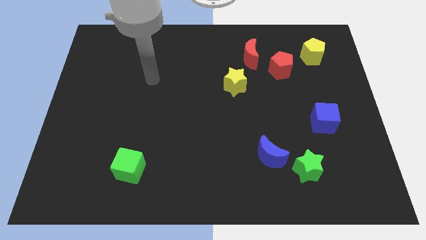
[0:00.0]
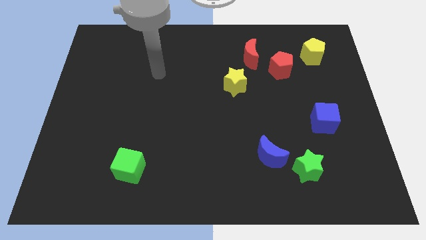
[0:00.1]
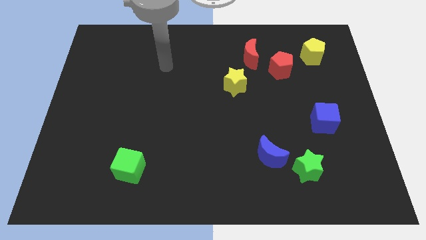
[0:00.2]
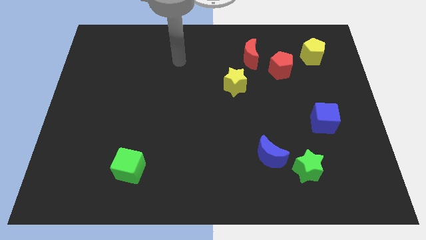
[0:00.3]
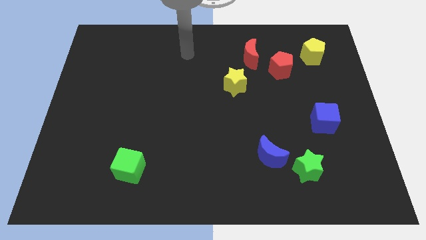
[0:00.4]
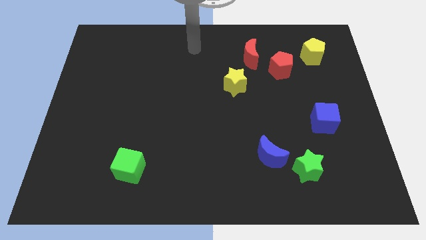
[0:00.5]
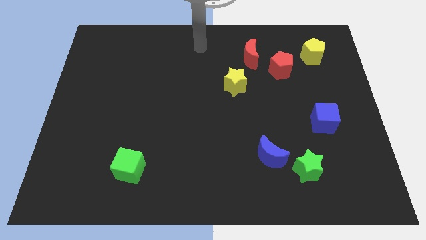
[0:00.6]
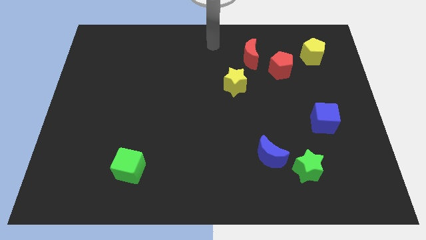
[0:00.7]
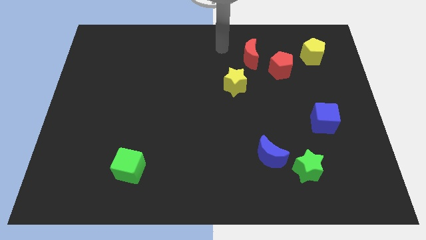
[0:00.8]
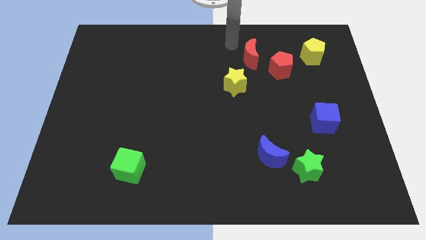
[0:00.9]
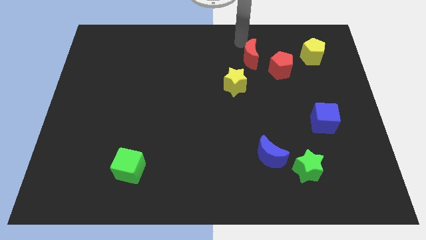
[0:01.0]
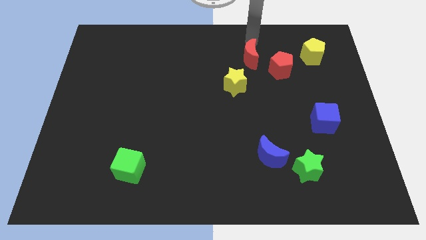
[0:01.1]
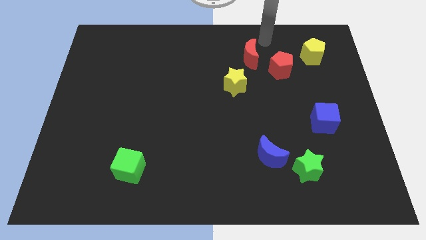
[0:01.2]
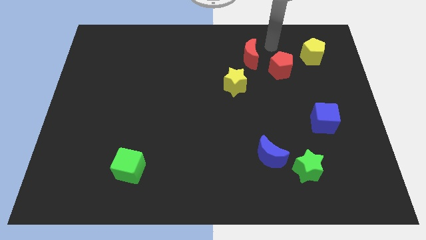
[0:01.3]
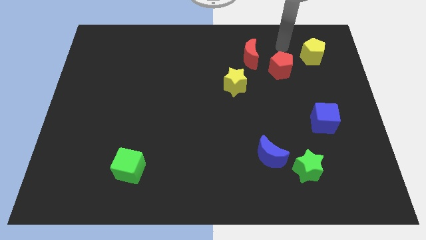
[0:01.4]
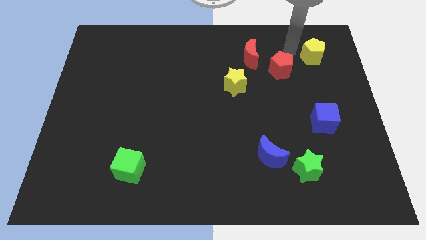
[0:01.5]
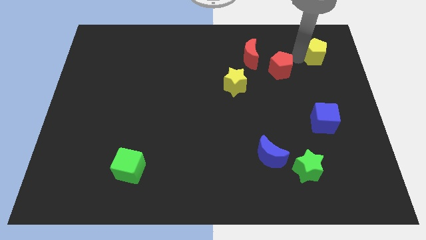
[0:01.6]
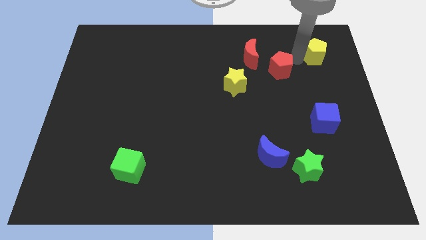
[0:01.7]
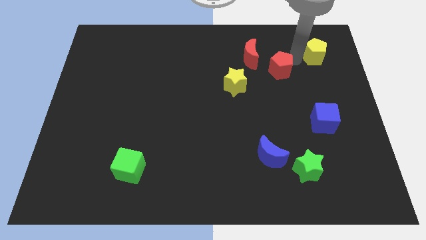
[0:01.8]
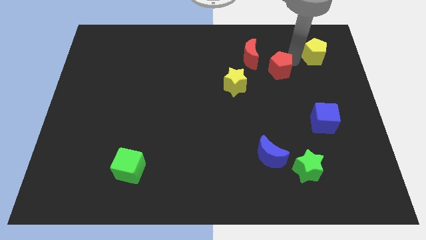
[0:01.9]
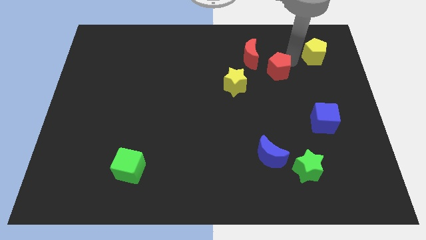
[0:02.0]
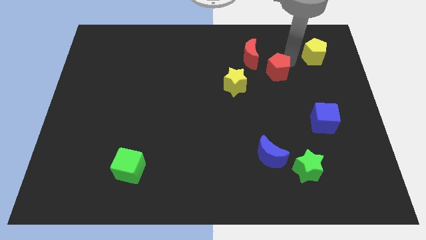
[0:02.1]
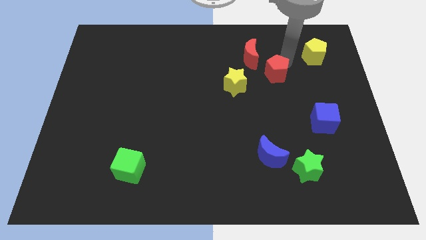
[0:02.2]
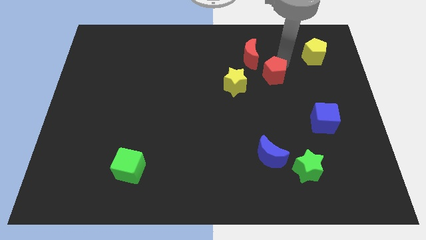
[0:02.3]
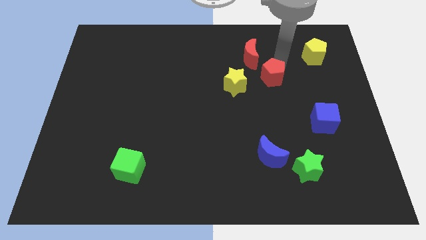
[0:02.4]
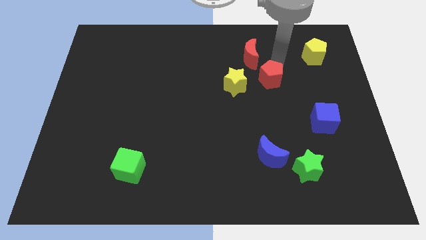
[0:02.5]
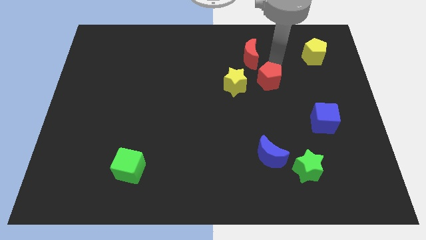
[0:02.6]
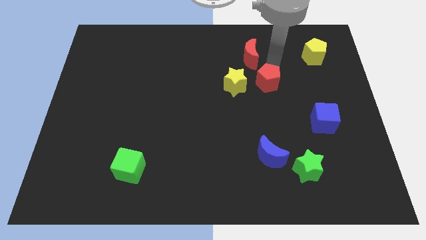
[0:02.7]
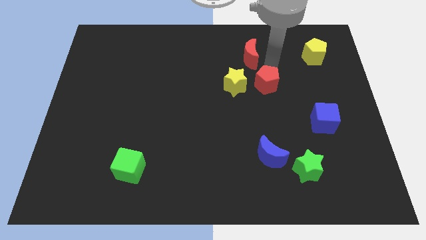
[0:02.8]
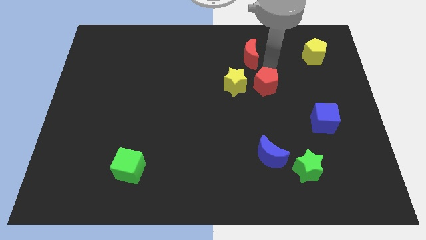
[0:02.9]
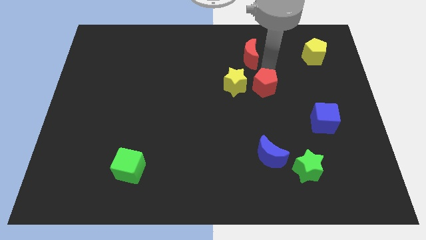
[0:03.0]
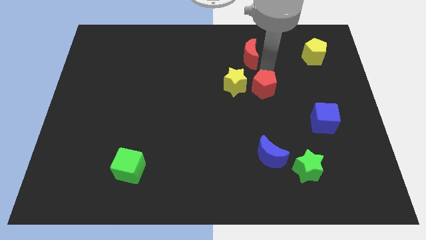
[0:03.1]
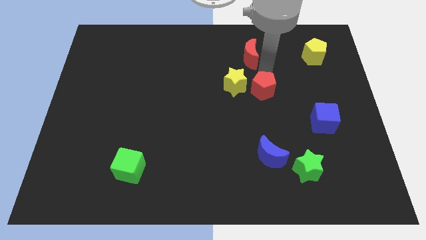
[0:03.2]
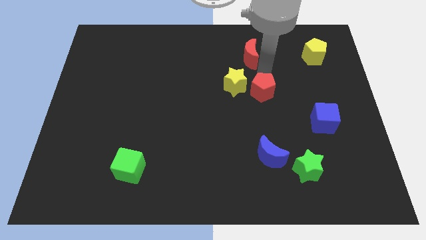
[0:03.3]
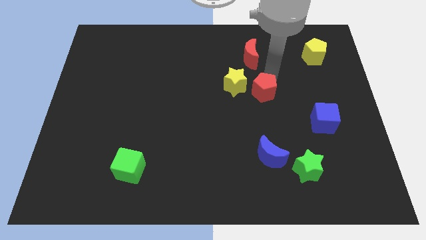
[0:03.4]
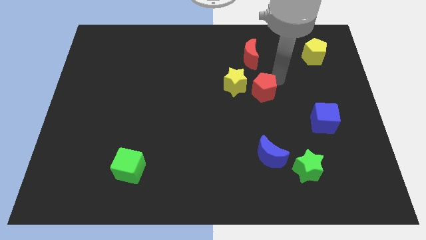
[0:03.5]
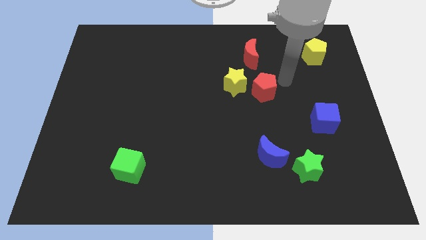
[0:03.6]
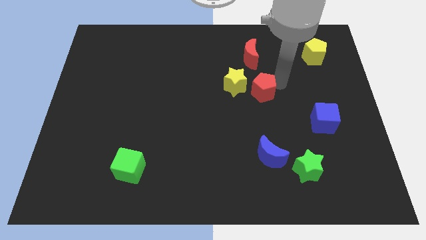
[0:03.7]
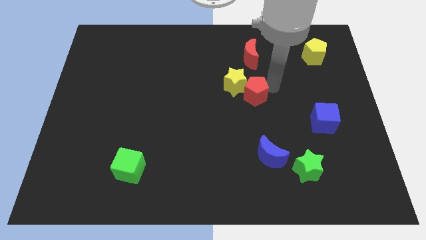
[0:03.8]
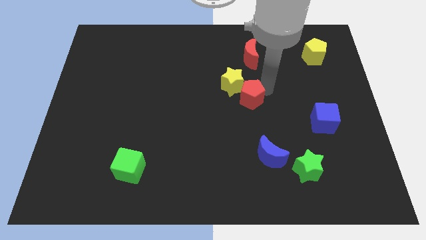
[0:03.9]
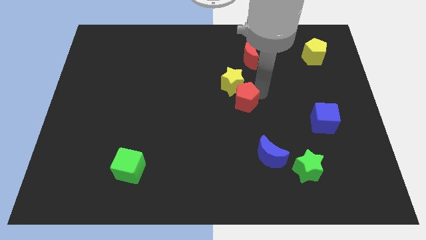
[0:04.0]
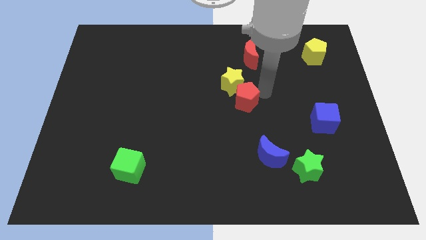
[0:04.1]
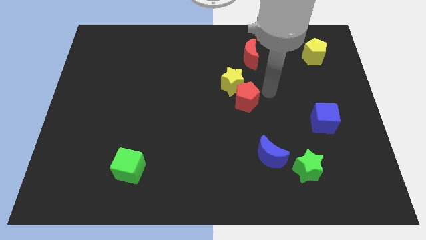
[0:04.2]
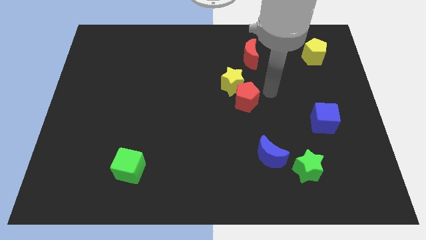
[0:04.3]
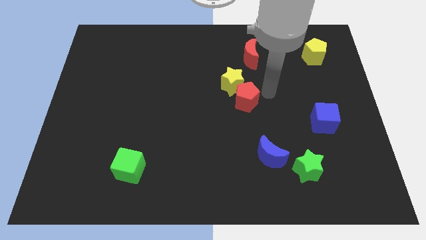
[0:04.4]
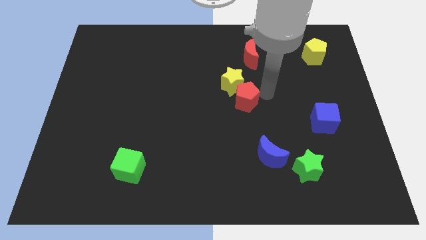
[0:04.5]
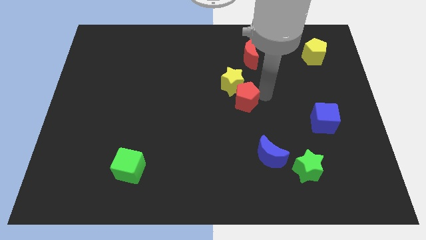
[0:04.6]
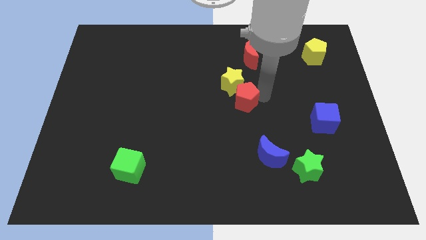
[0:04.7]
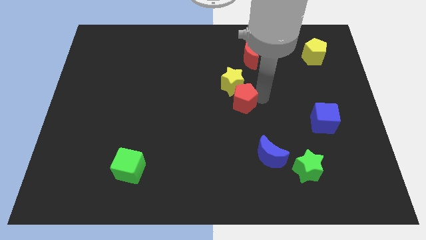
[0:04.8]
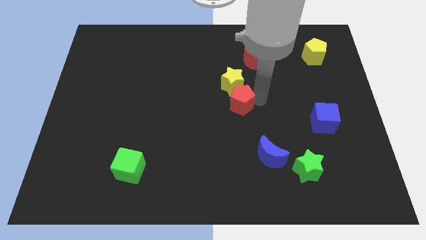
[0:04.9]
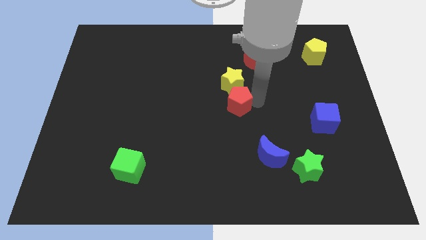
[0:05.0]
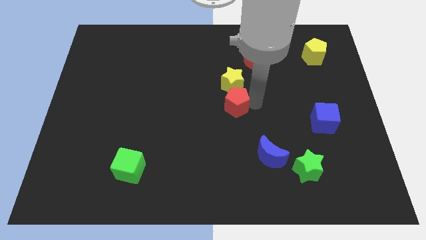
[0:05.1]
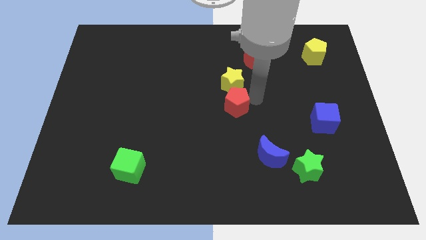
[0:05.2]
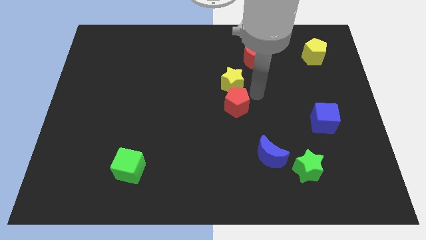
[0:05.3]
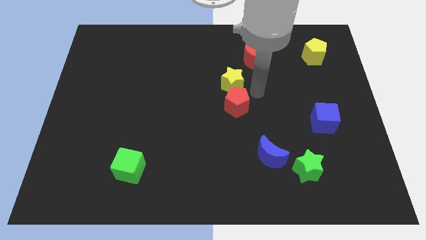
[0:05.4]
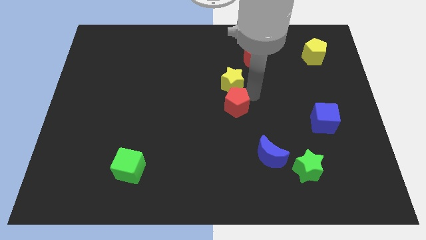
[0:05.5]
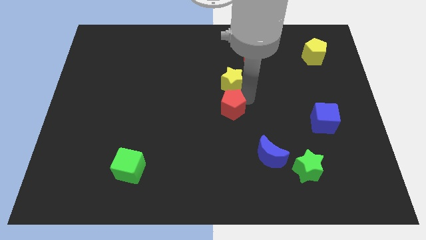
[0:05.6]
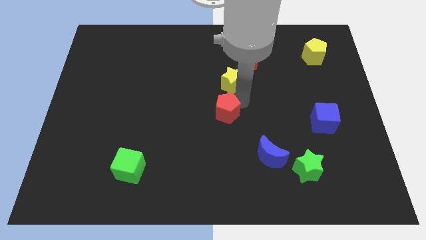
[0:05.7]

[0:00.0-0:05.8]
push the red pentagon downwards and left

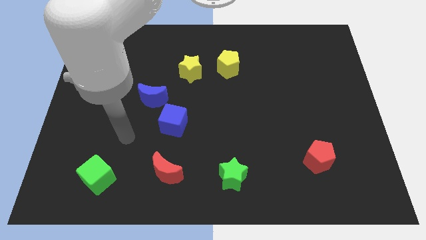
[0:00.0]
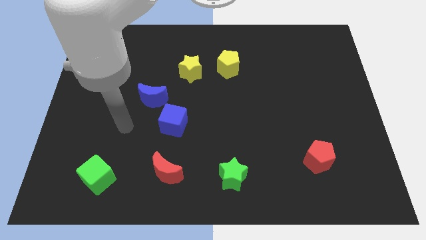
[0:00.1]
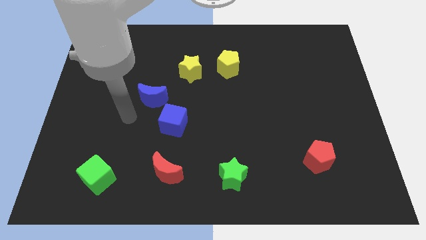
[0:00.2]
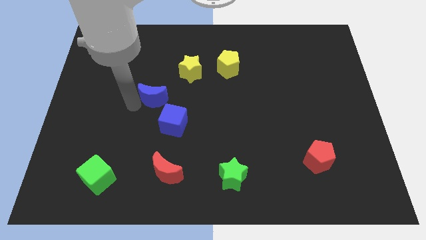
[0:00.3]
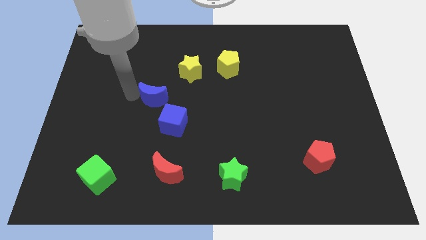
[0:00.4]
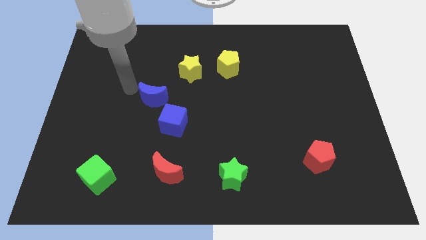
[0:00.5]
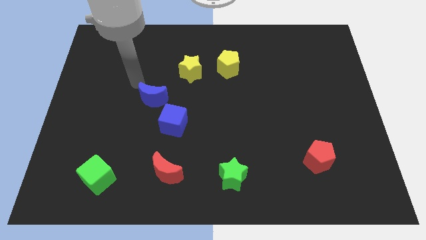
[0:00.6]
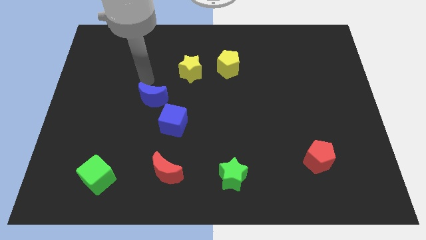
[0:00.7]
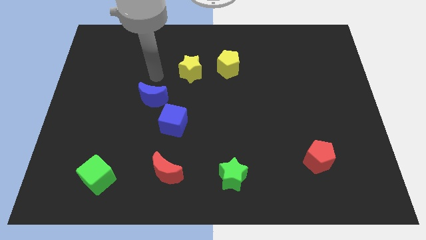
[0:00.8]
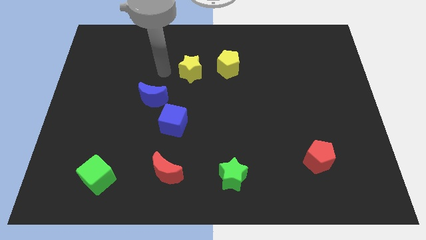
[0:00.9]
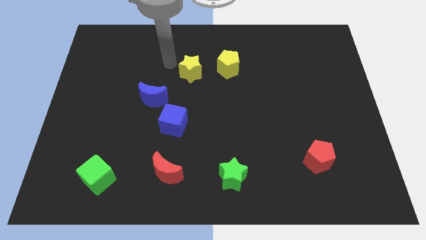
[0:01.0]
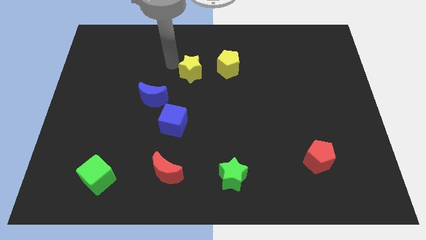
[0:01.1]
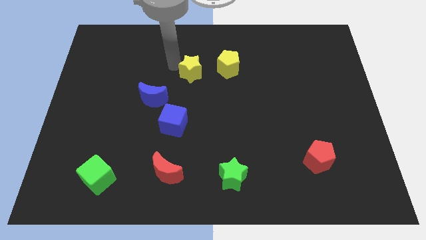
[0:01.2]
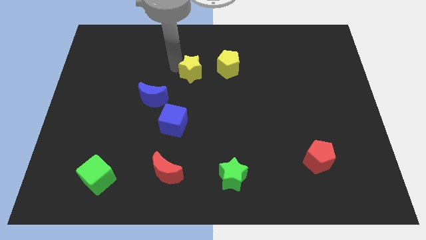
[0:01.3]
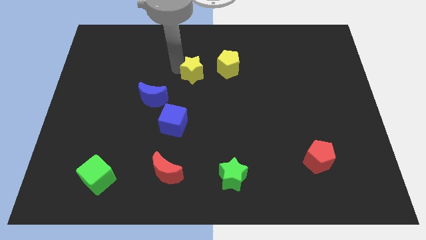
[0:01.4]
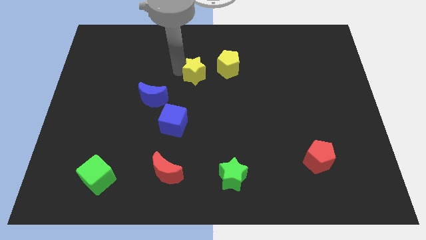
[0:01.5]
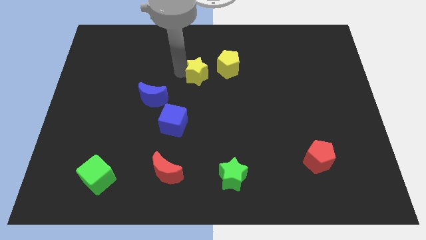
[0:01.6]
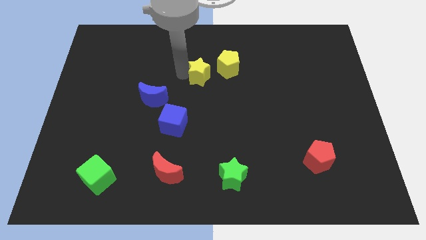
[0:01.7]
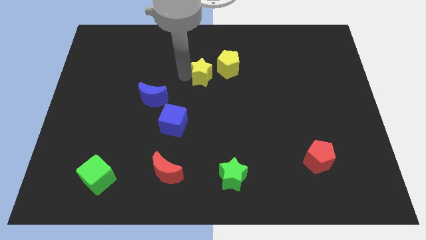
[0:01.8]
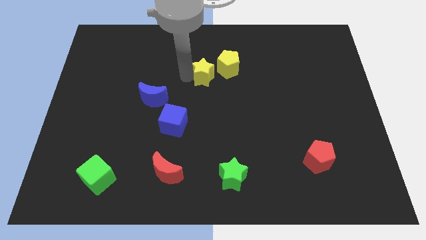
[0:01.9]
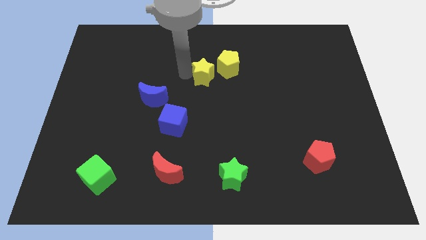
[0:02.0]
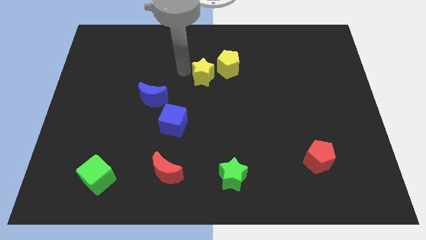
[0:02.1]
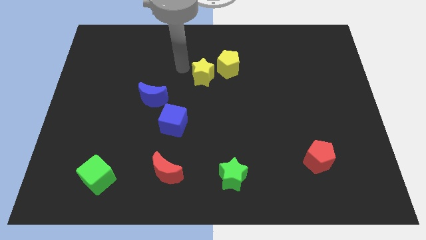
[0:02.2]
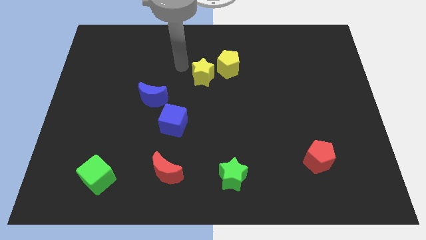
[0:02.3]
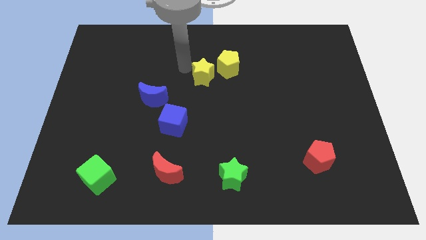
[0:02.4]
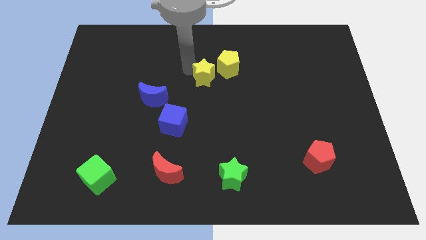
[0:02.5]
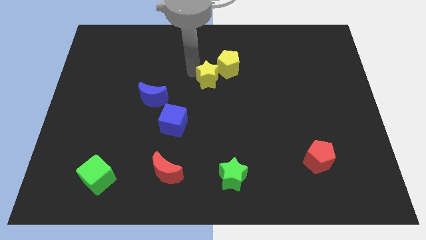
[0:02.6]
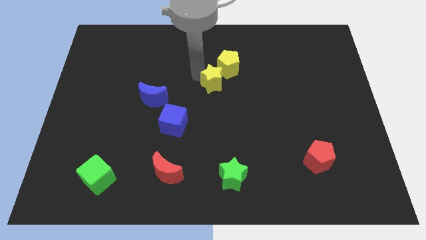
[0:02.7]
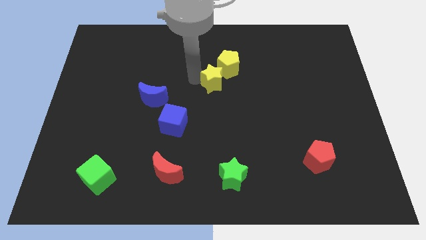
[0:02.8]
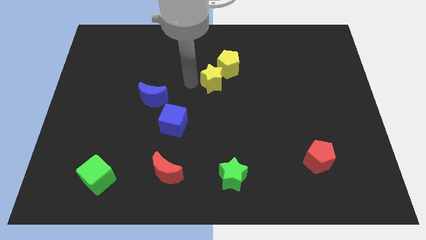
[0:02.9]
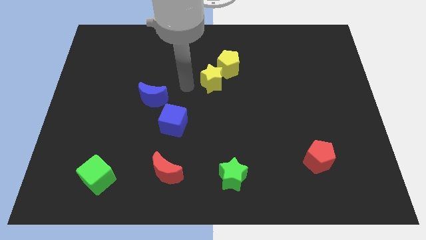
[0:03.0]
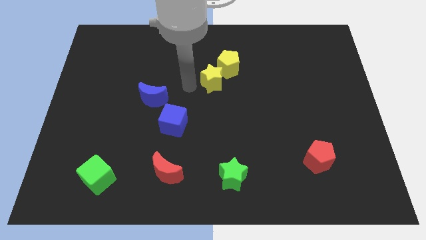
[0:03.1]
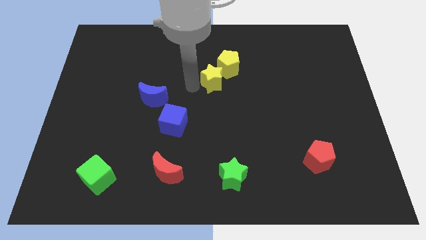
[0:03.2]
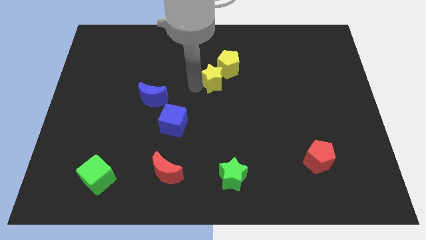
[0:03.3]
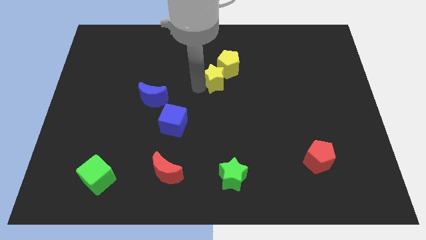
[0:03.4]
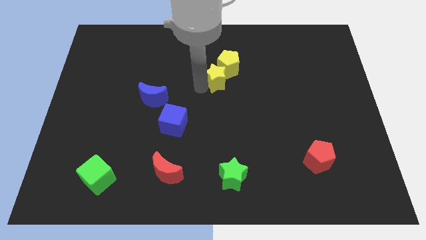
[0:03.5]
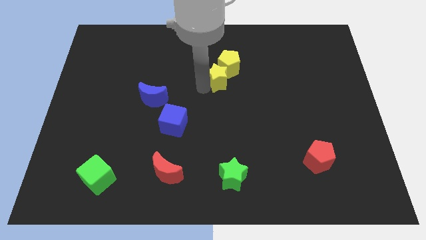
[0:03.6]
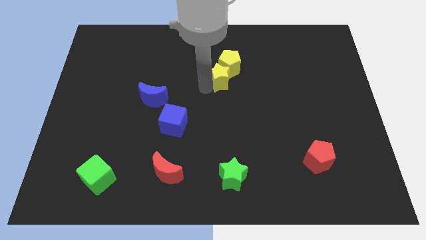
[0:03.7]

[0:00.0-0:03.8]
slightly move the yellow star to the right
